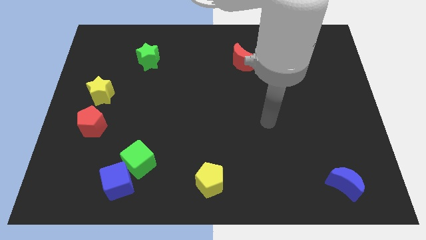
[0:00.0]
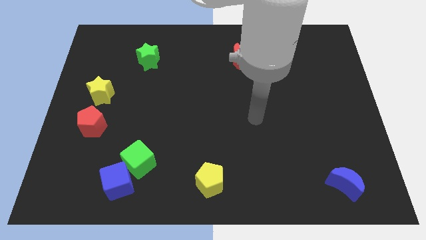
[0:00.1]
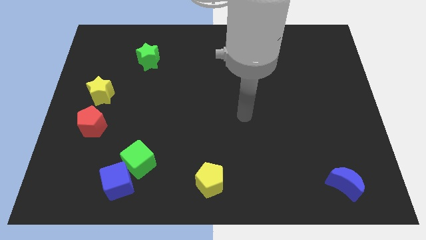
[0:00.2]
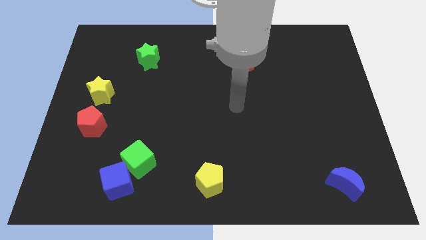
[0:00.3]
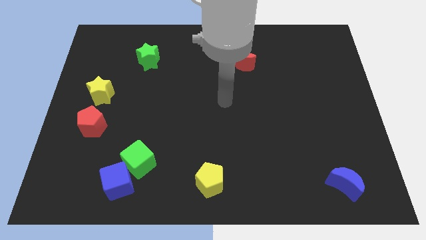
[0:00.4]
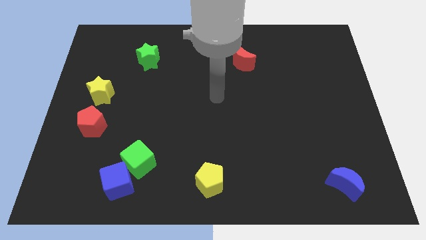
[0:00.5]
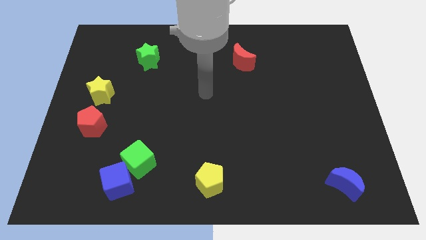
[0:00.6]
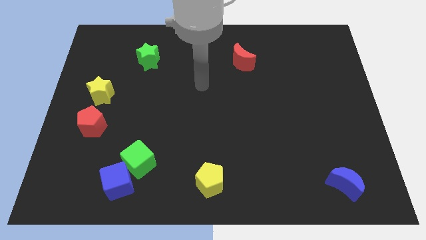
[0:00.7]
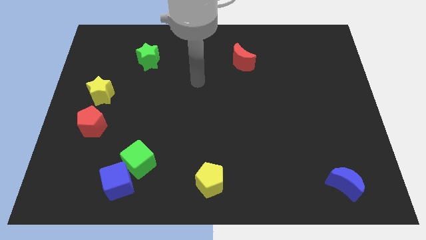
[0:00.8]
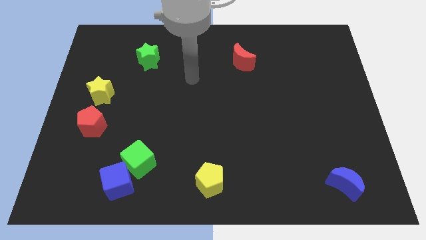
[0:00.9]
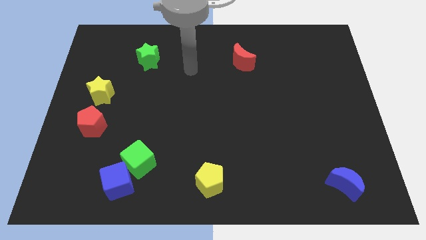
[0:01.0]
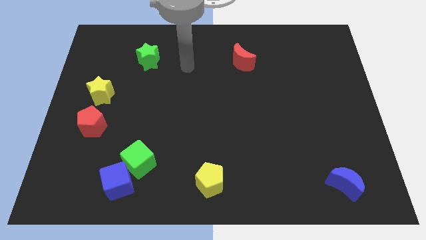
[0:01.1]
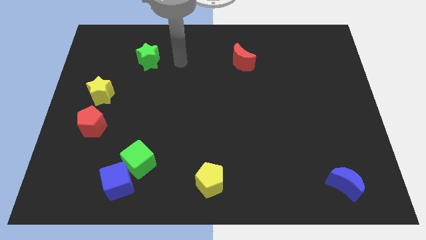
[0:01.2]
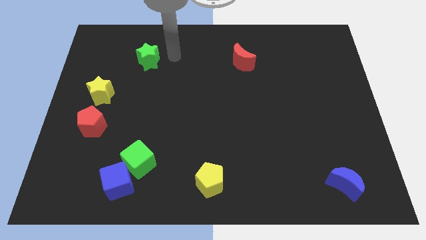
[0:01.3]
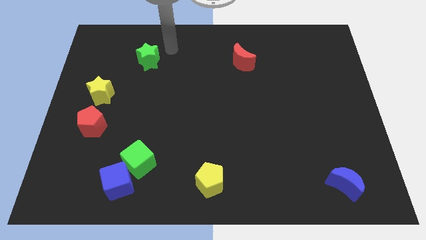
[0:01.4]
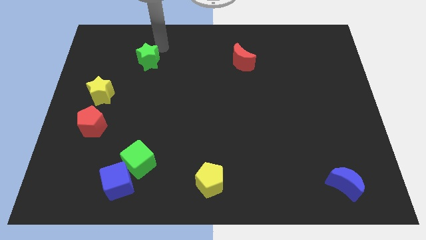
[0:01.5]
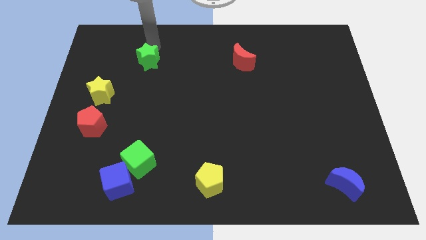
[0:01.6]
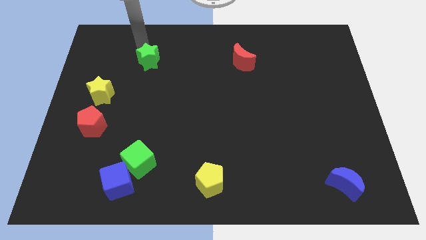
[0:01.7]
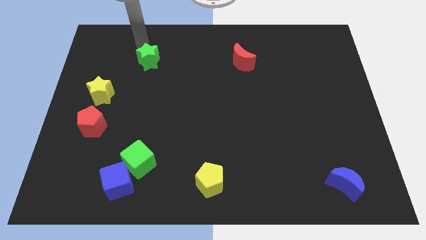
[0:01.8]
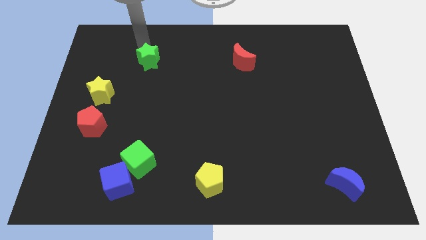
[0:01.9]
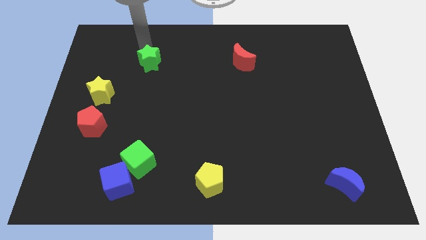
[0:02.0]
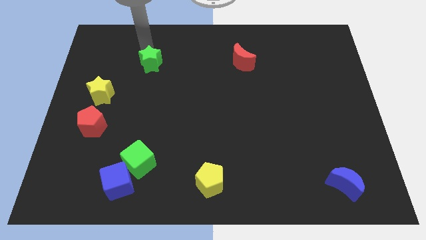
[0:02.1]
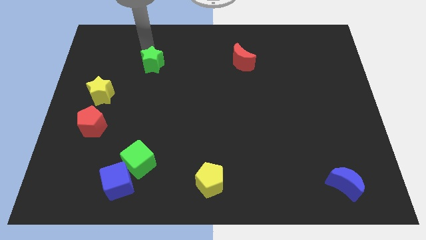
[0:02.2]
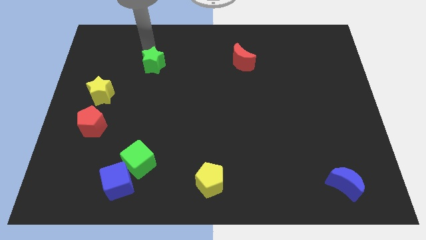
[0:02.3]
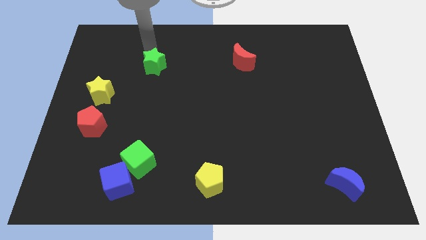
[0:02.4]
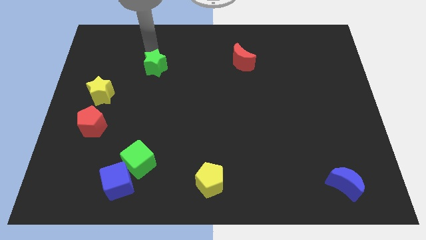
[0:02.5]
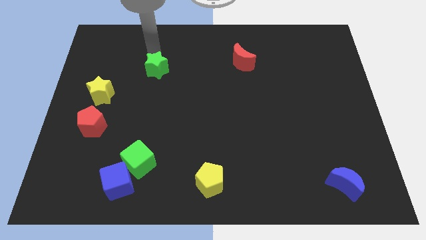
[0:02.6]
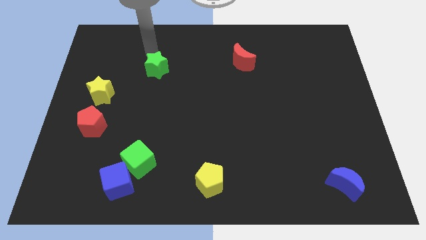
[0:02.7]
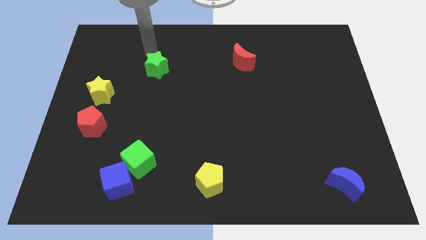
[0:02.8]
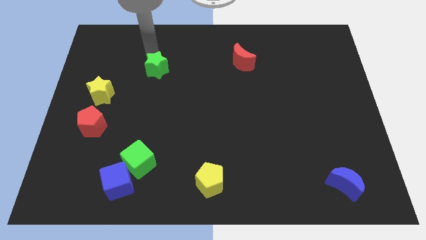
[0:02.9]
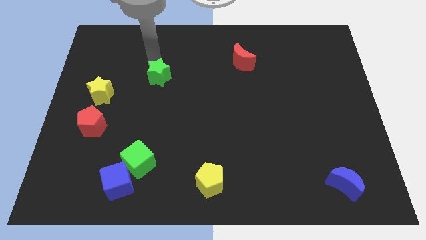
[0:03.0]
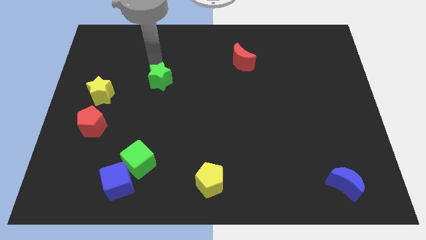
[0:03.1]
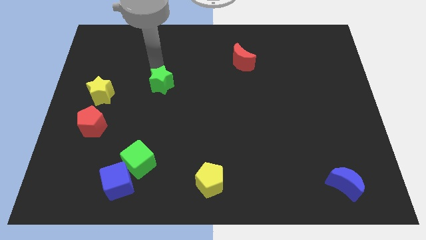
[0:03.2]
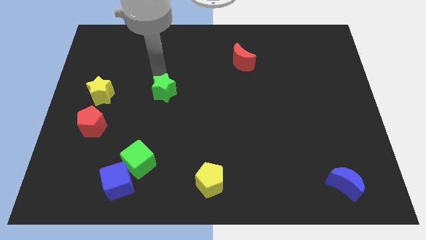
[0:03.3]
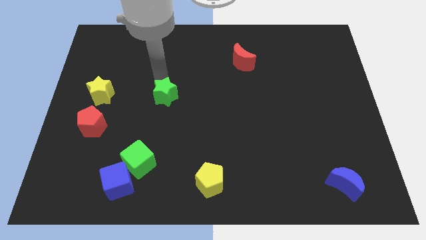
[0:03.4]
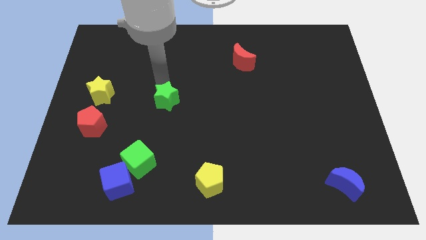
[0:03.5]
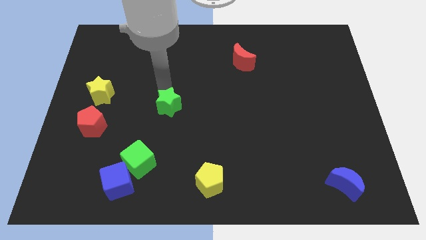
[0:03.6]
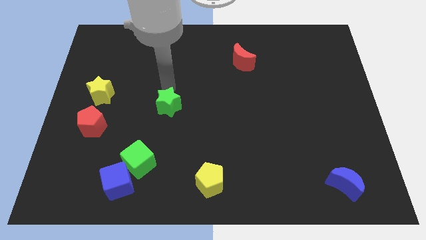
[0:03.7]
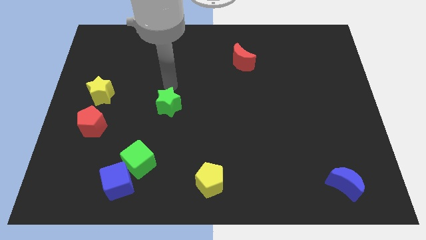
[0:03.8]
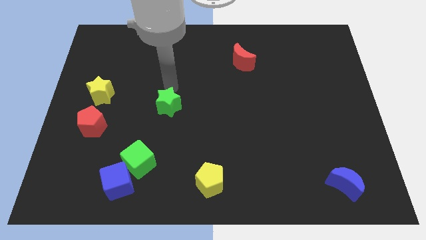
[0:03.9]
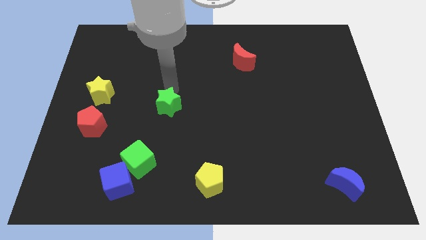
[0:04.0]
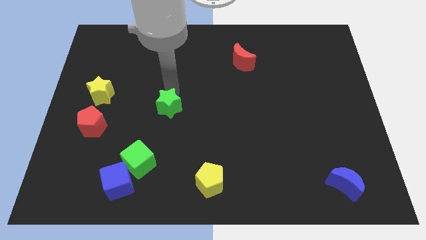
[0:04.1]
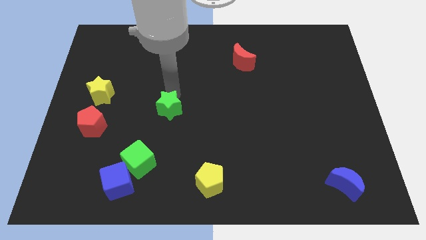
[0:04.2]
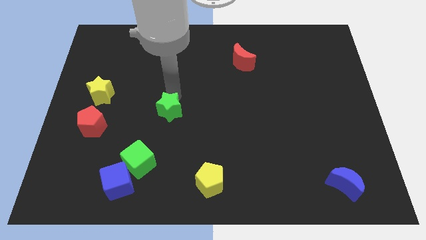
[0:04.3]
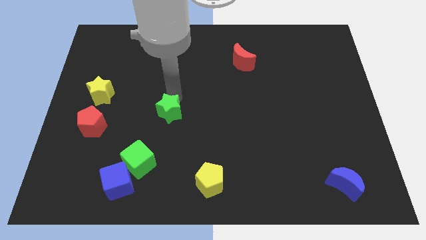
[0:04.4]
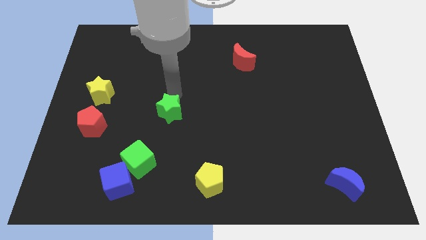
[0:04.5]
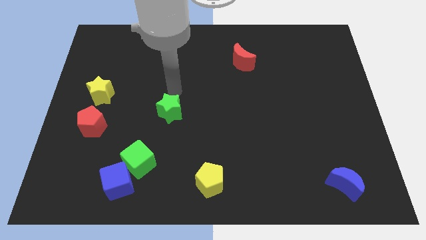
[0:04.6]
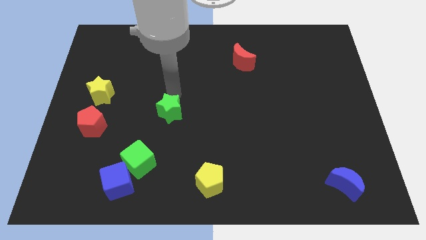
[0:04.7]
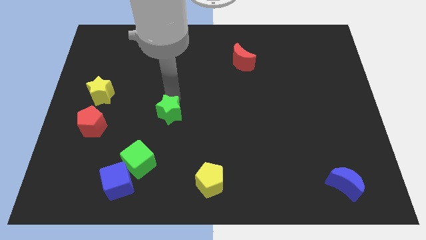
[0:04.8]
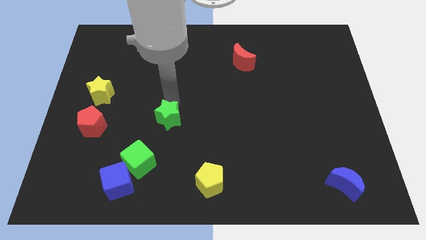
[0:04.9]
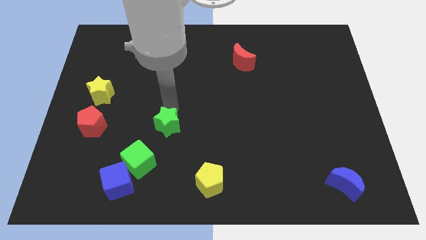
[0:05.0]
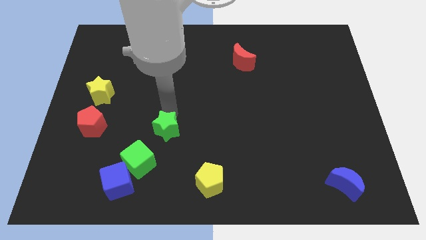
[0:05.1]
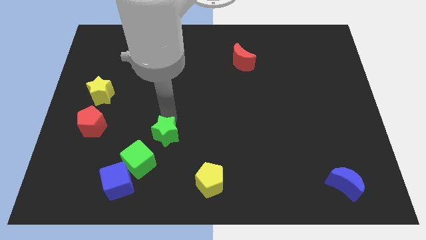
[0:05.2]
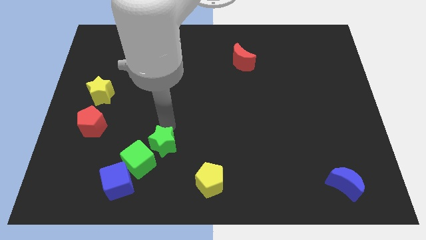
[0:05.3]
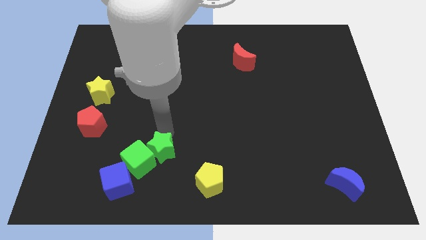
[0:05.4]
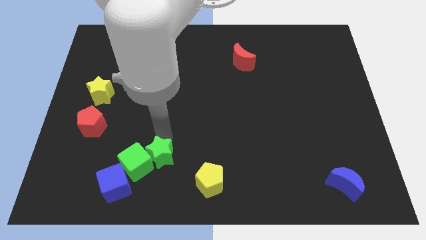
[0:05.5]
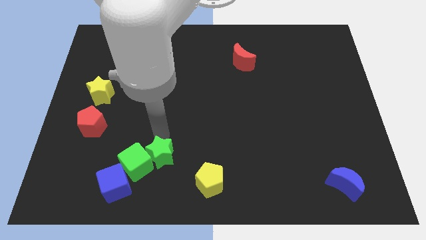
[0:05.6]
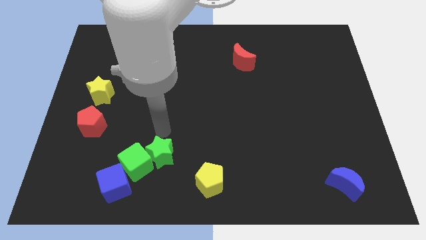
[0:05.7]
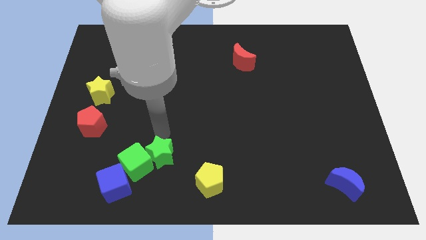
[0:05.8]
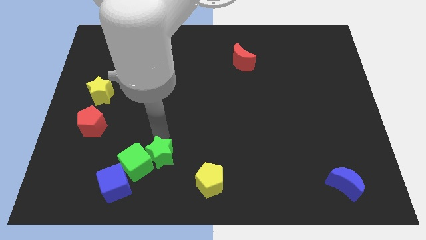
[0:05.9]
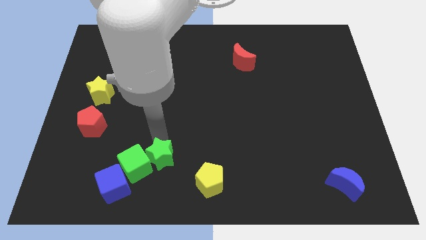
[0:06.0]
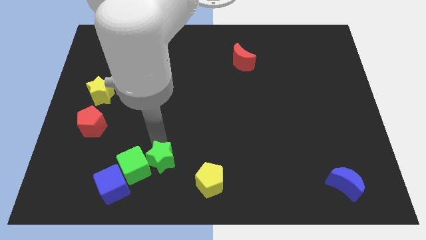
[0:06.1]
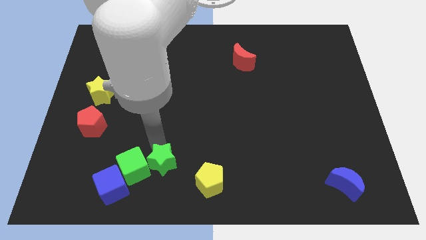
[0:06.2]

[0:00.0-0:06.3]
push the green star to the bottom right of the green cube

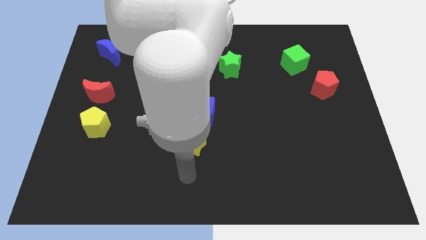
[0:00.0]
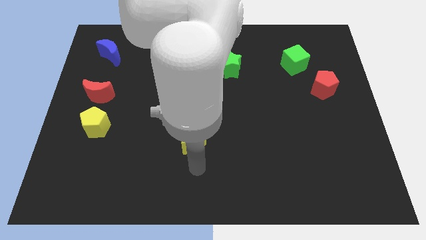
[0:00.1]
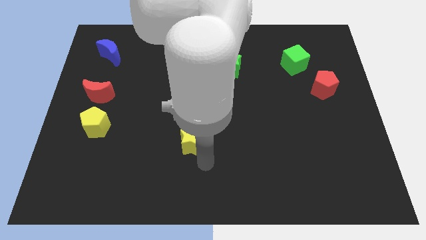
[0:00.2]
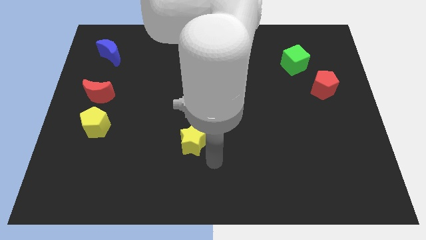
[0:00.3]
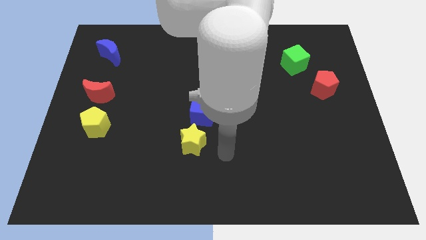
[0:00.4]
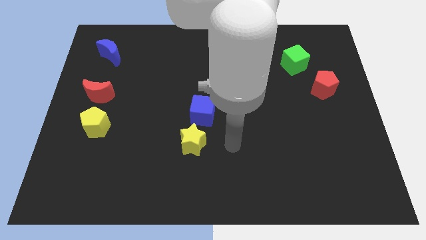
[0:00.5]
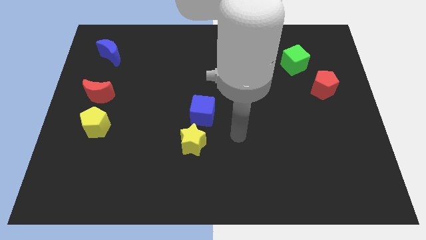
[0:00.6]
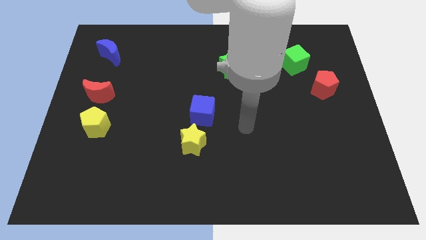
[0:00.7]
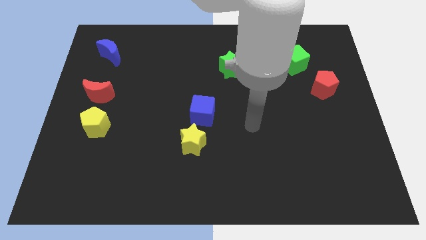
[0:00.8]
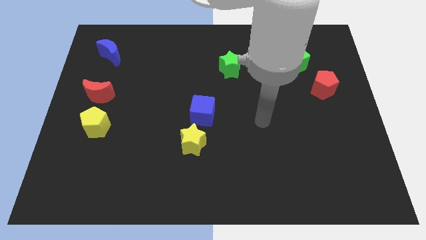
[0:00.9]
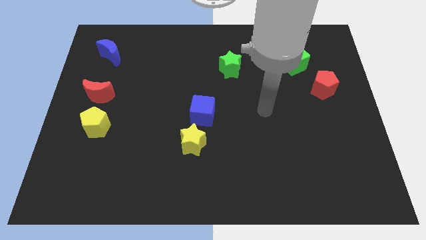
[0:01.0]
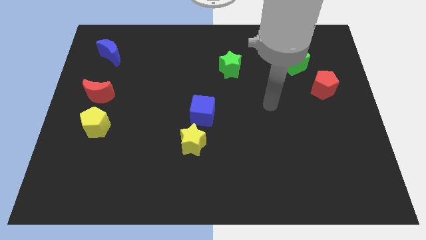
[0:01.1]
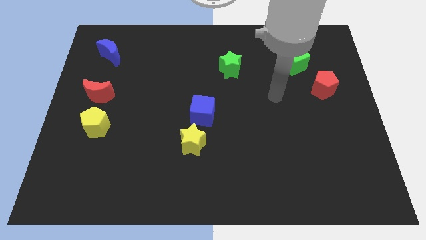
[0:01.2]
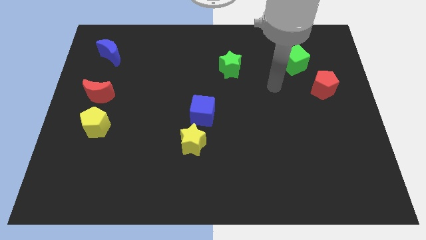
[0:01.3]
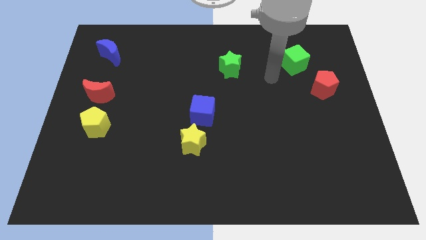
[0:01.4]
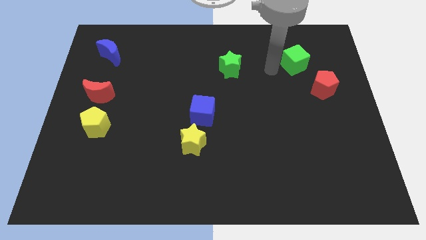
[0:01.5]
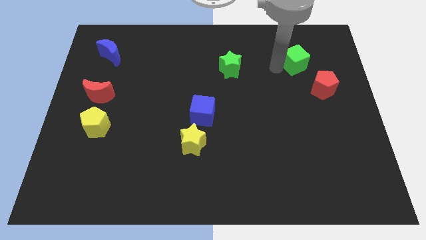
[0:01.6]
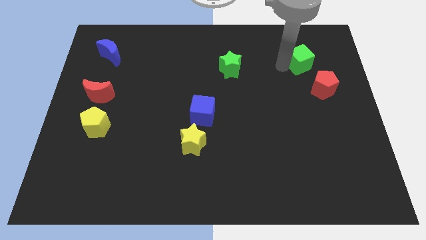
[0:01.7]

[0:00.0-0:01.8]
put the green cube above the red pentagon
